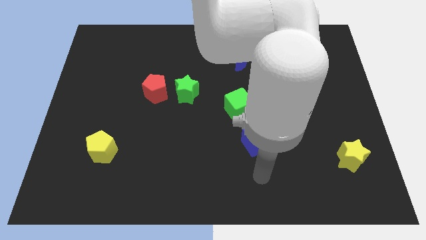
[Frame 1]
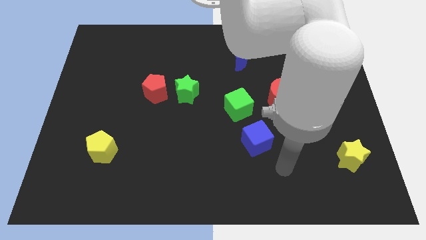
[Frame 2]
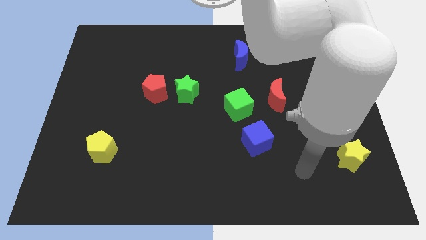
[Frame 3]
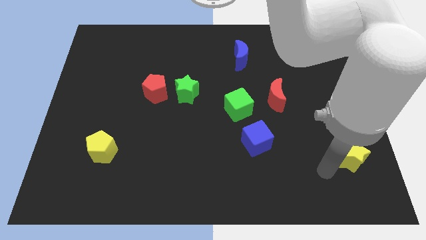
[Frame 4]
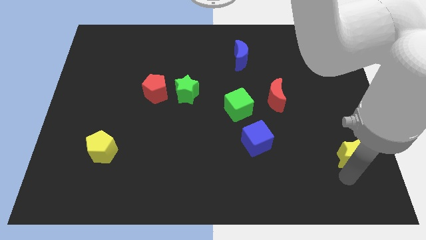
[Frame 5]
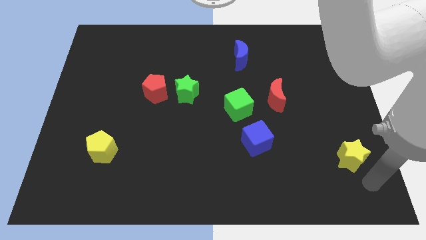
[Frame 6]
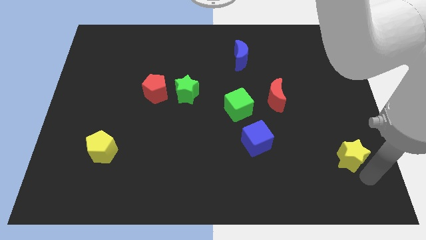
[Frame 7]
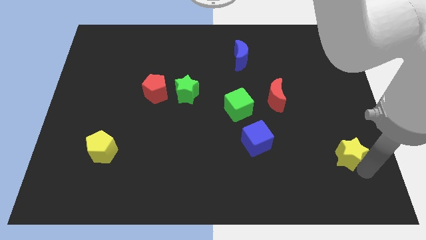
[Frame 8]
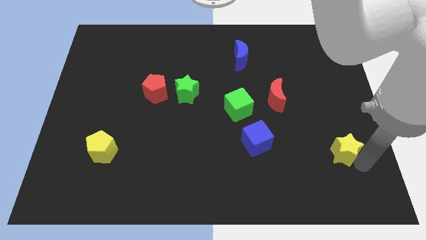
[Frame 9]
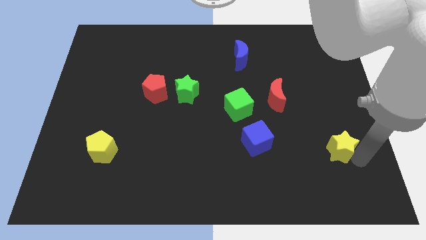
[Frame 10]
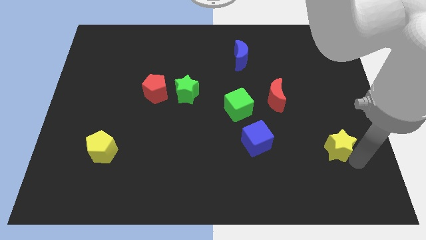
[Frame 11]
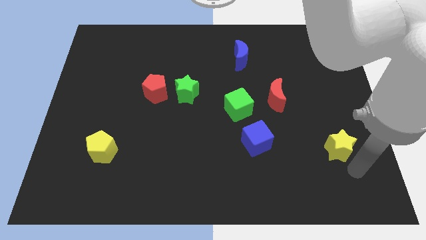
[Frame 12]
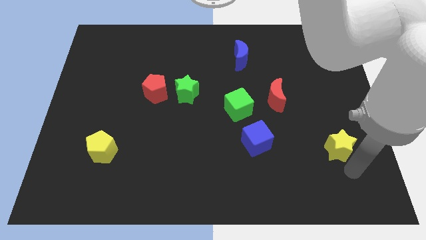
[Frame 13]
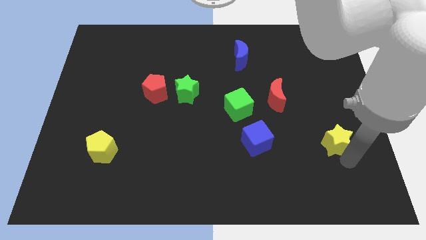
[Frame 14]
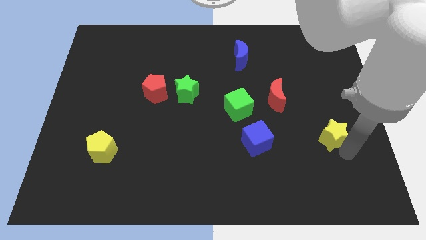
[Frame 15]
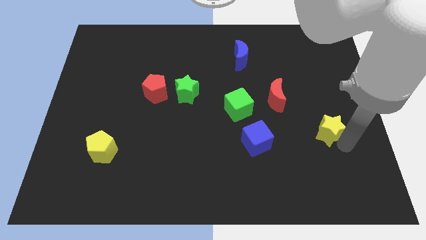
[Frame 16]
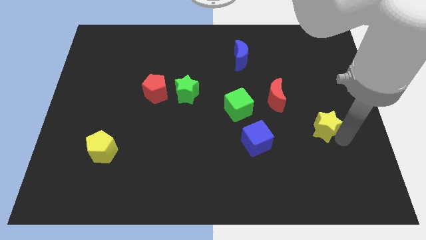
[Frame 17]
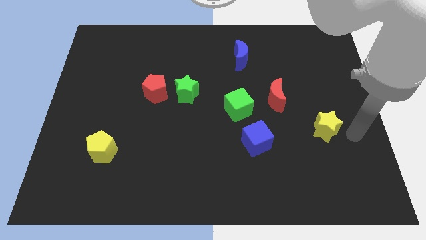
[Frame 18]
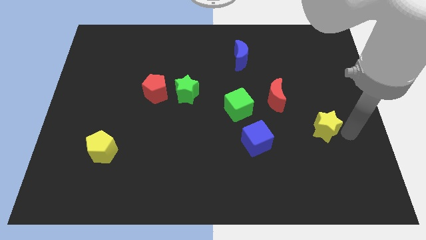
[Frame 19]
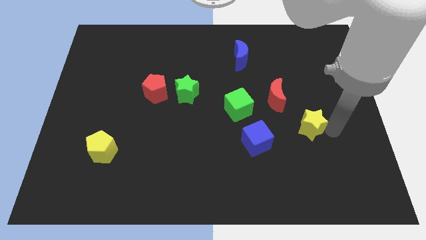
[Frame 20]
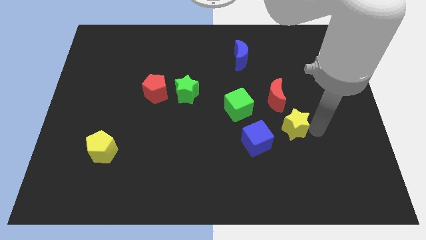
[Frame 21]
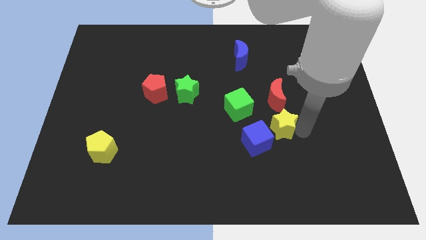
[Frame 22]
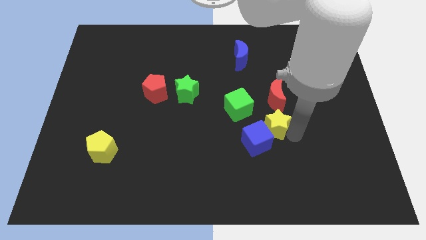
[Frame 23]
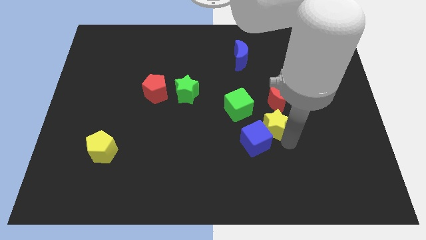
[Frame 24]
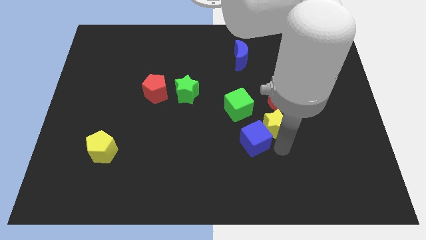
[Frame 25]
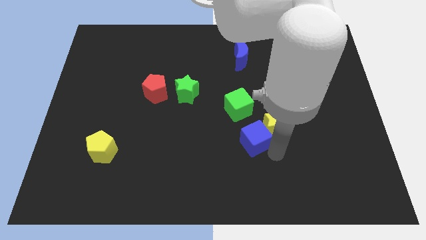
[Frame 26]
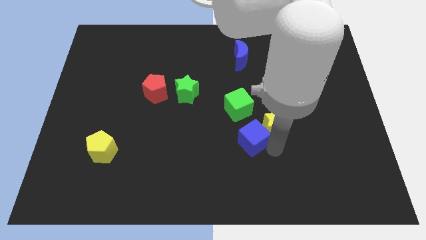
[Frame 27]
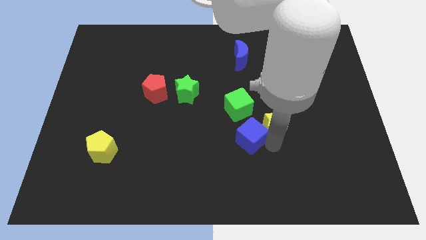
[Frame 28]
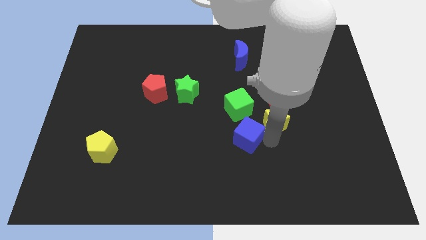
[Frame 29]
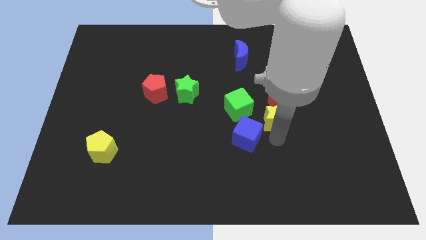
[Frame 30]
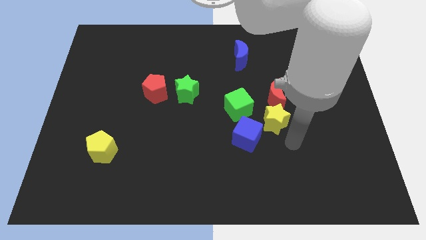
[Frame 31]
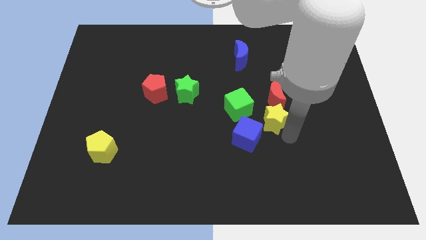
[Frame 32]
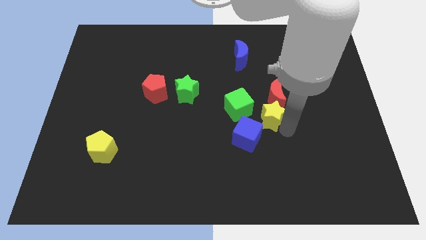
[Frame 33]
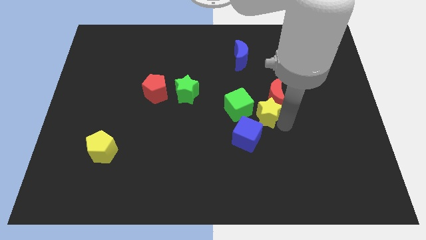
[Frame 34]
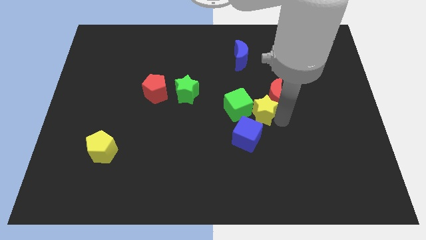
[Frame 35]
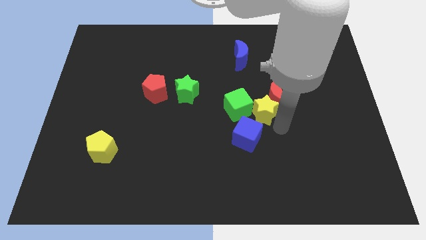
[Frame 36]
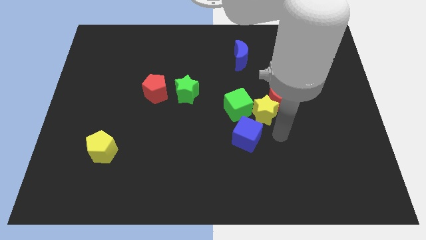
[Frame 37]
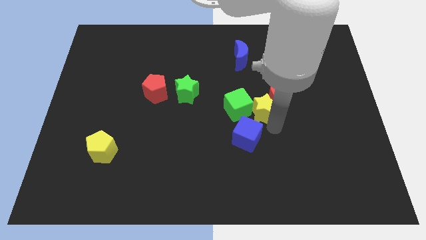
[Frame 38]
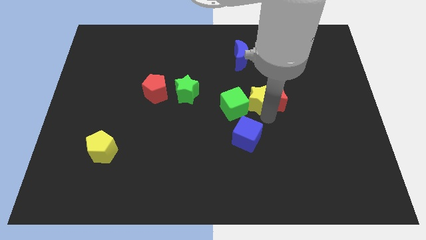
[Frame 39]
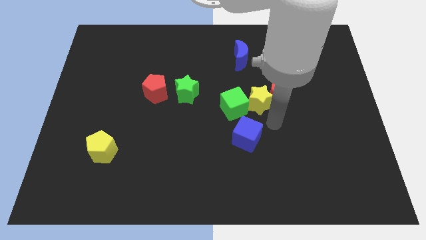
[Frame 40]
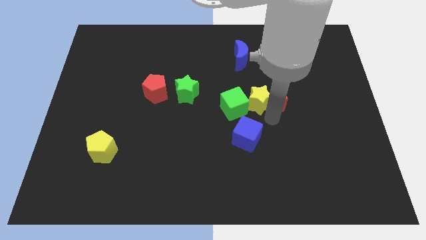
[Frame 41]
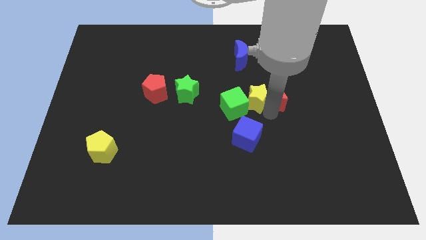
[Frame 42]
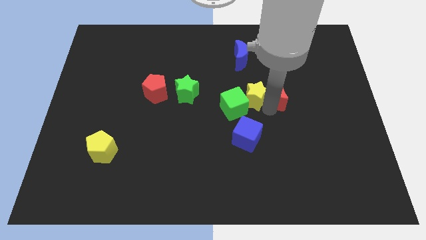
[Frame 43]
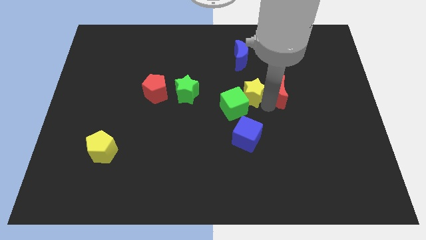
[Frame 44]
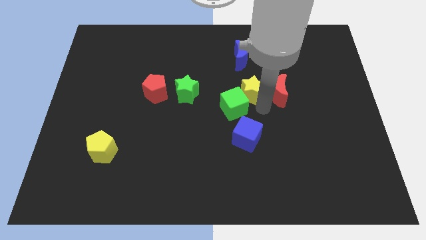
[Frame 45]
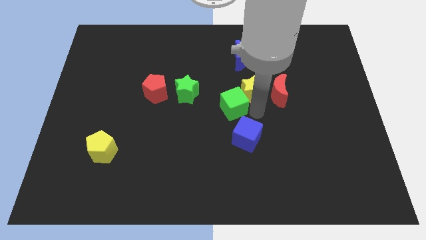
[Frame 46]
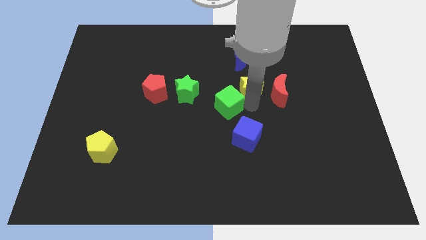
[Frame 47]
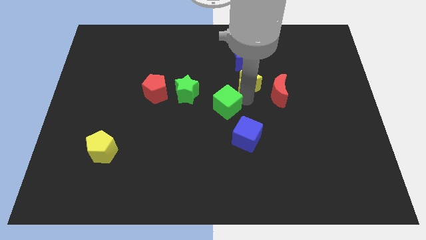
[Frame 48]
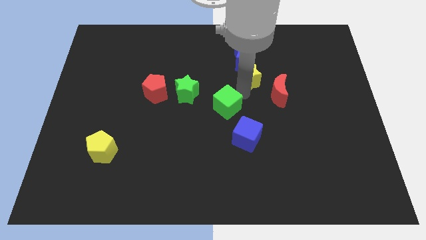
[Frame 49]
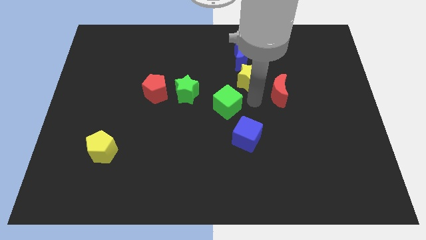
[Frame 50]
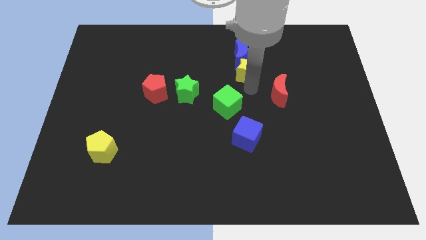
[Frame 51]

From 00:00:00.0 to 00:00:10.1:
move the yellow star close to the blue moon

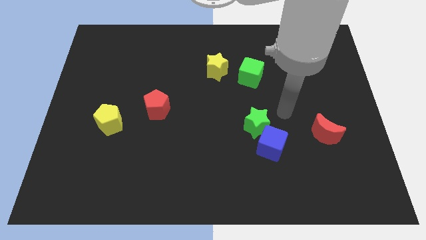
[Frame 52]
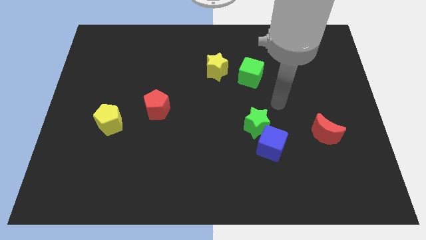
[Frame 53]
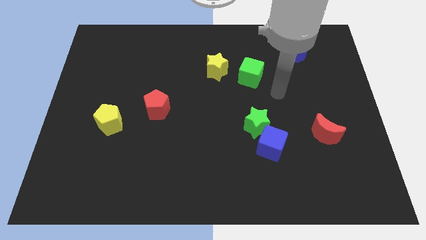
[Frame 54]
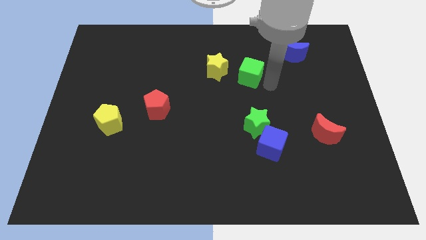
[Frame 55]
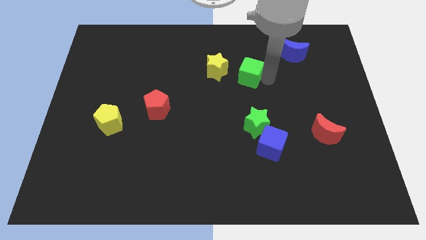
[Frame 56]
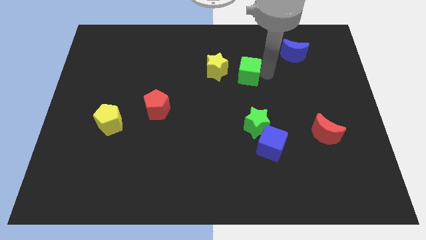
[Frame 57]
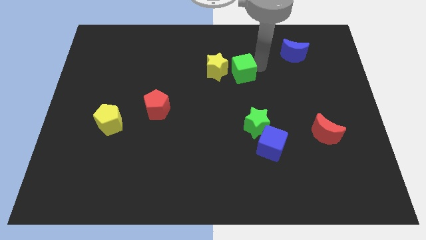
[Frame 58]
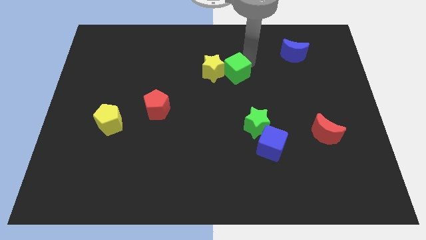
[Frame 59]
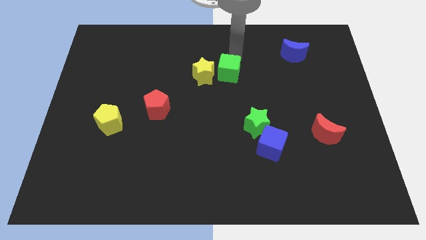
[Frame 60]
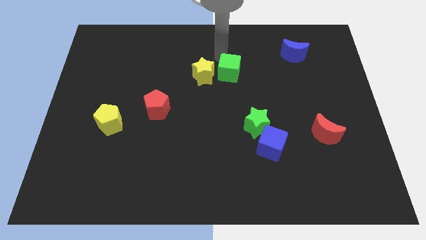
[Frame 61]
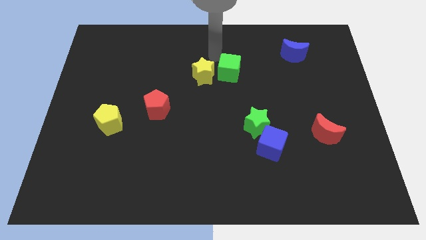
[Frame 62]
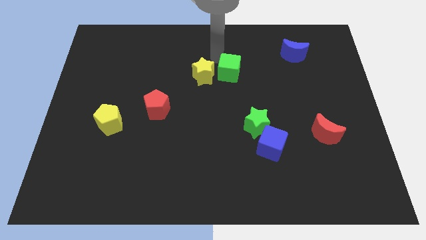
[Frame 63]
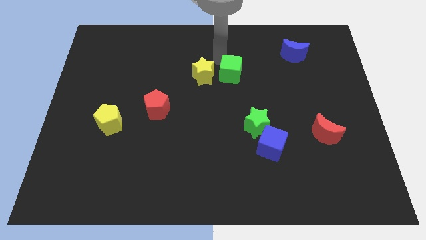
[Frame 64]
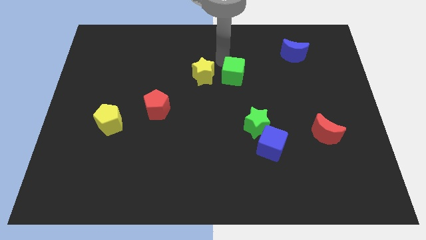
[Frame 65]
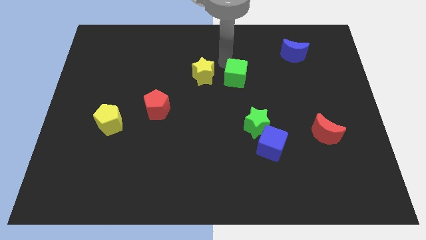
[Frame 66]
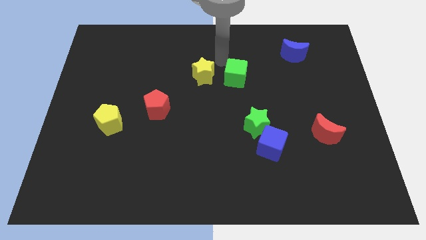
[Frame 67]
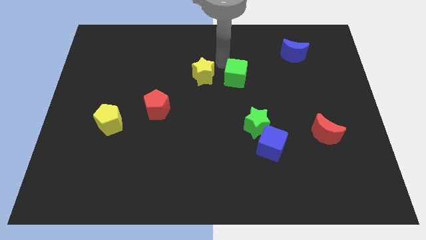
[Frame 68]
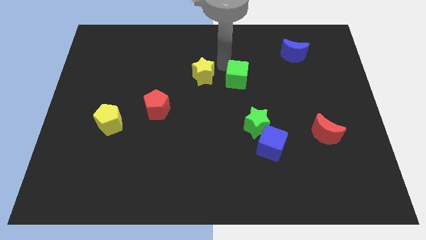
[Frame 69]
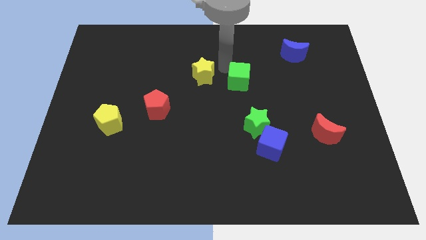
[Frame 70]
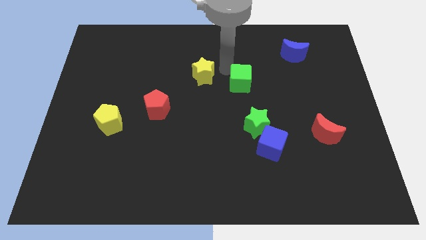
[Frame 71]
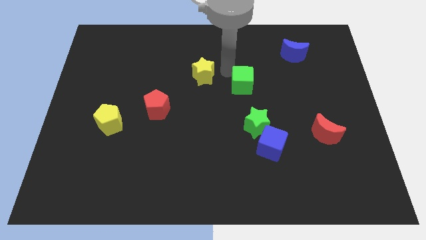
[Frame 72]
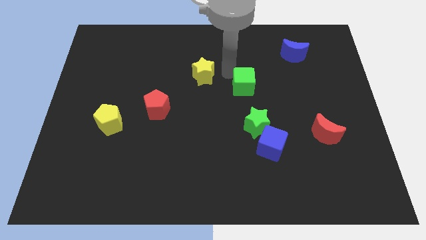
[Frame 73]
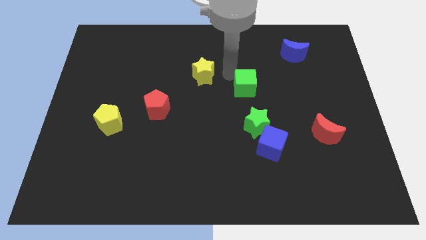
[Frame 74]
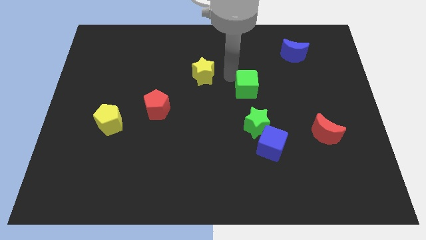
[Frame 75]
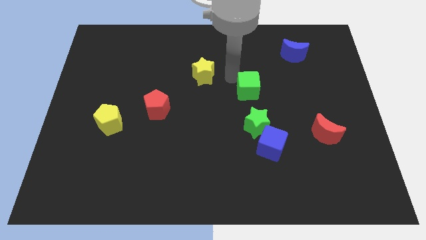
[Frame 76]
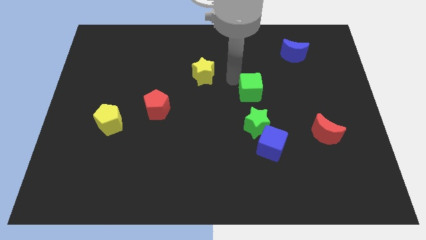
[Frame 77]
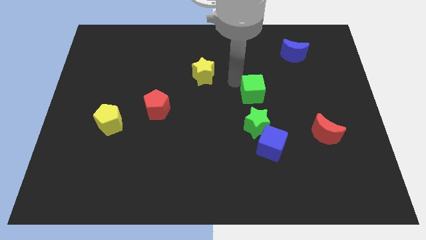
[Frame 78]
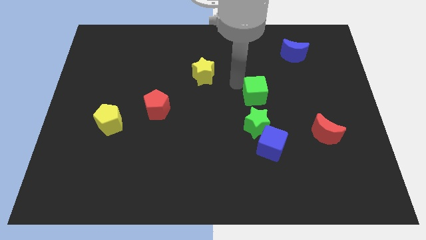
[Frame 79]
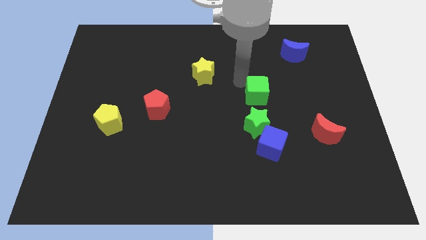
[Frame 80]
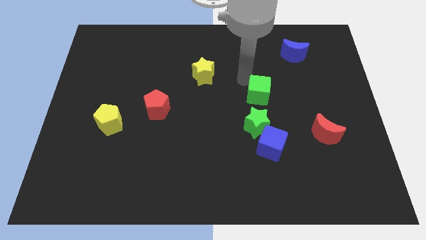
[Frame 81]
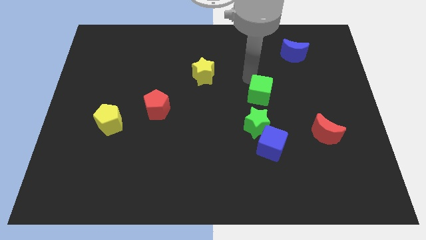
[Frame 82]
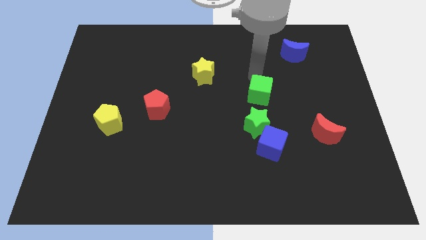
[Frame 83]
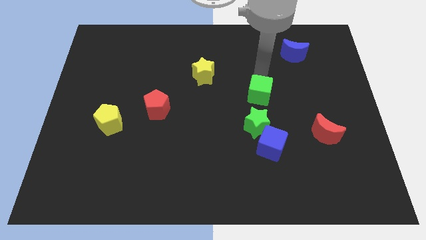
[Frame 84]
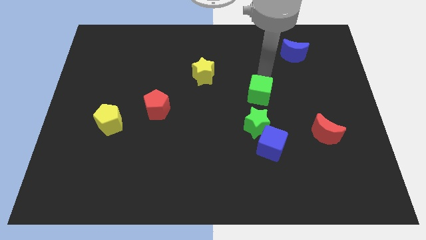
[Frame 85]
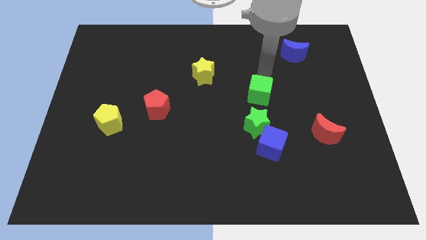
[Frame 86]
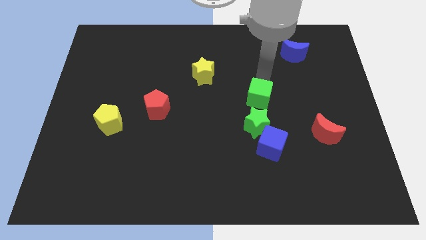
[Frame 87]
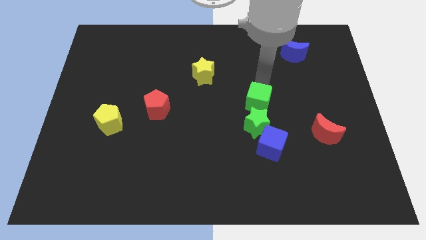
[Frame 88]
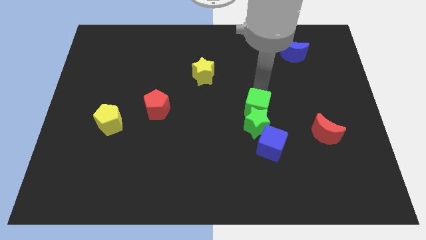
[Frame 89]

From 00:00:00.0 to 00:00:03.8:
move the green cube to the green star
